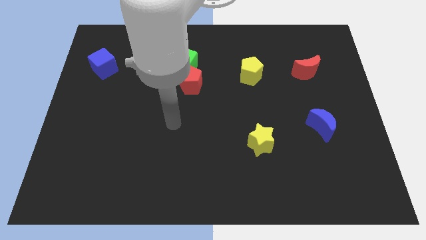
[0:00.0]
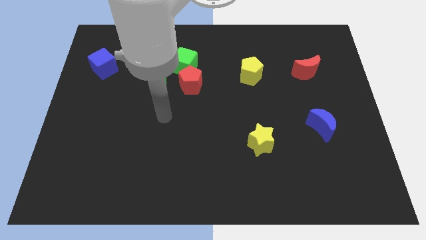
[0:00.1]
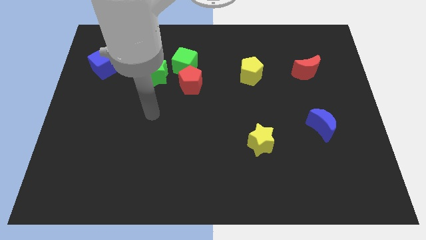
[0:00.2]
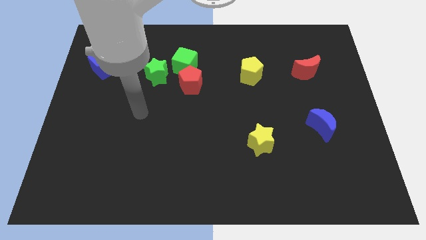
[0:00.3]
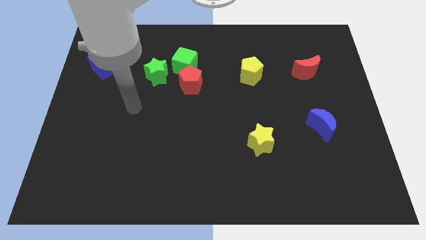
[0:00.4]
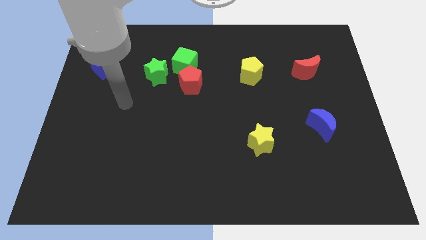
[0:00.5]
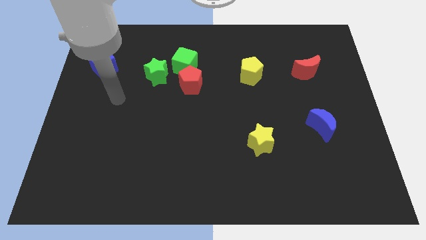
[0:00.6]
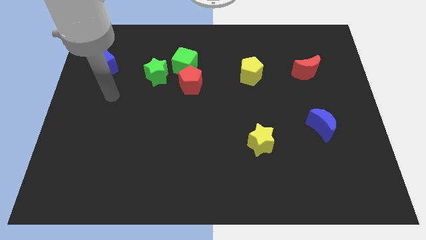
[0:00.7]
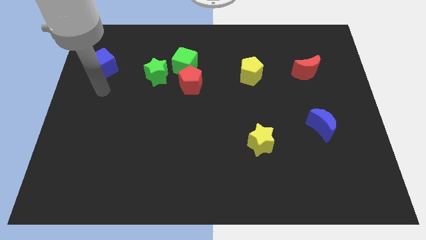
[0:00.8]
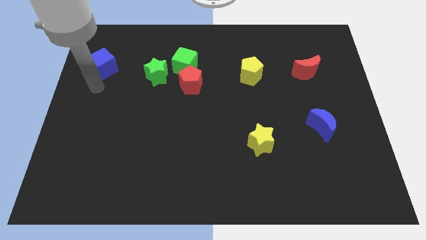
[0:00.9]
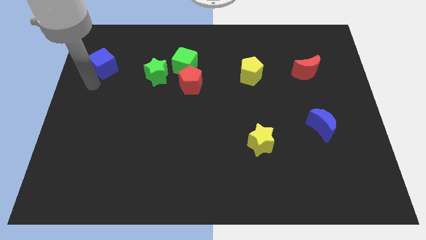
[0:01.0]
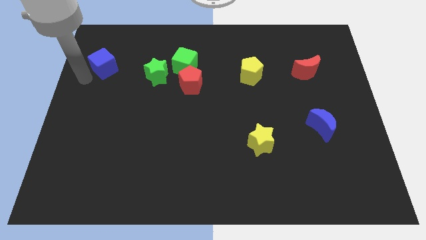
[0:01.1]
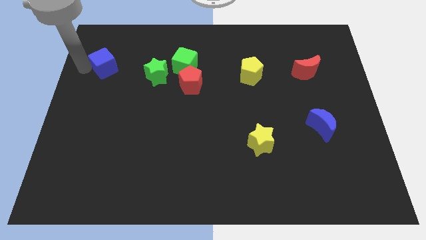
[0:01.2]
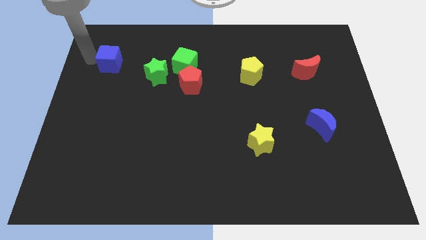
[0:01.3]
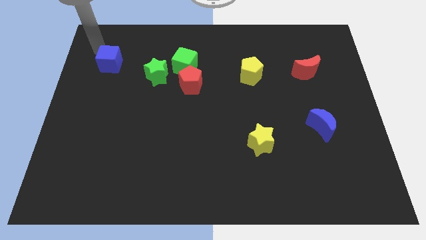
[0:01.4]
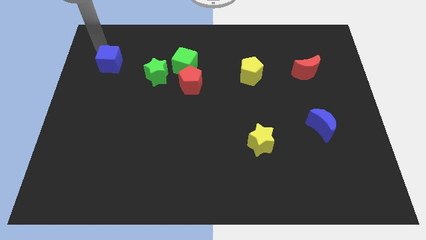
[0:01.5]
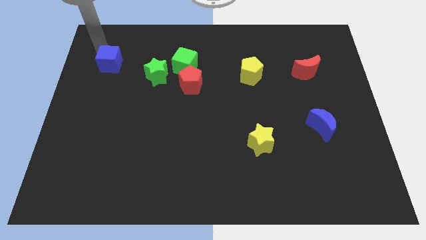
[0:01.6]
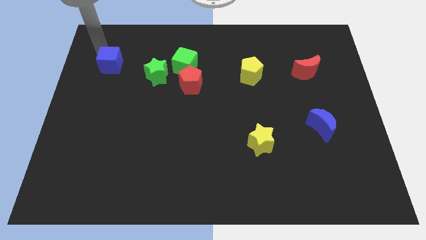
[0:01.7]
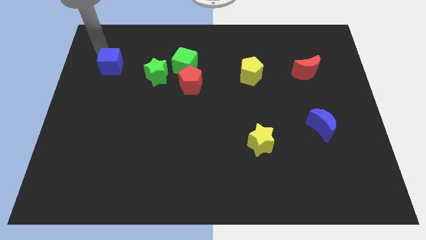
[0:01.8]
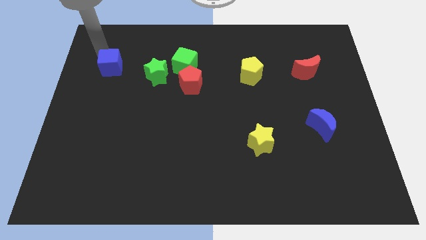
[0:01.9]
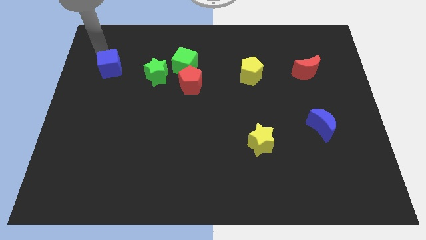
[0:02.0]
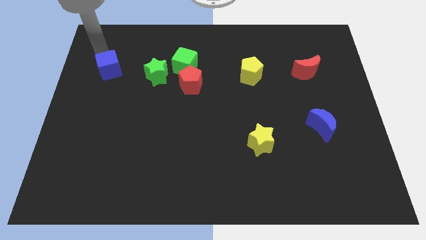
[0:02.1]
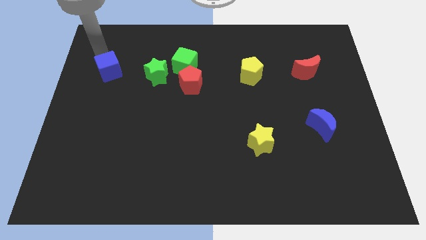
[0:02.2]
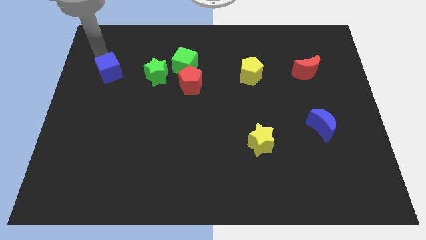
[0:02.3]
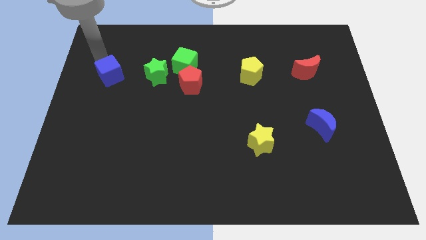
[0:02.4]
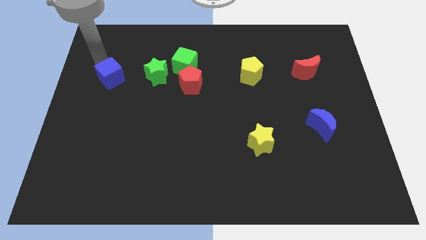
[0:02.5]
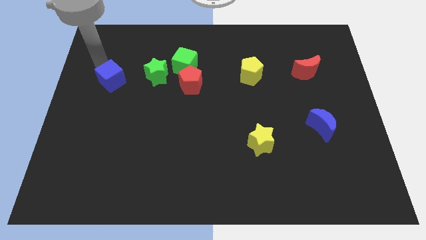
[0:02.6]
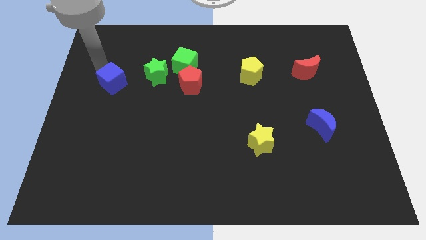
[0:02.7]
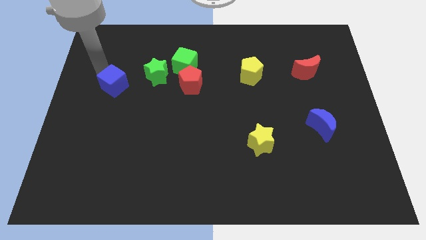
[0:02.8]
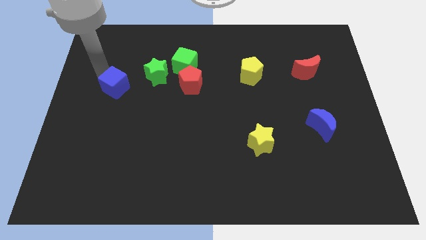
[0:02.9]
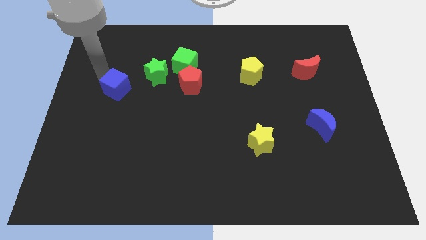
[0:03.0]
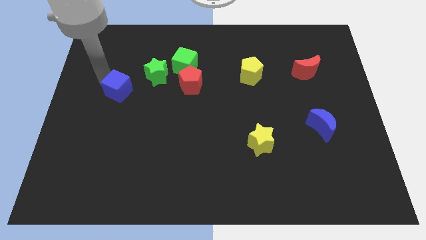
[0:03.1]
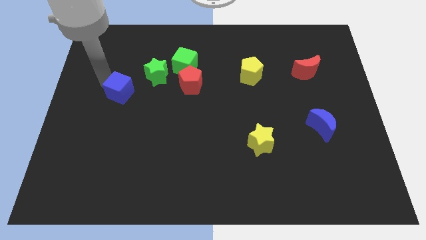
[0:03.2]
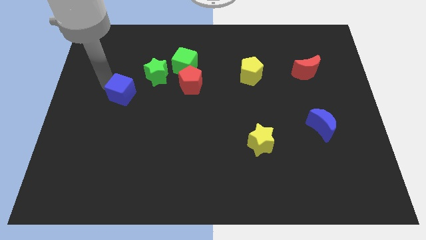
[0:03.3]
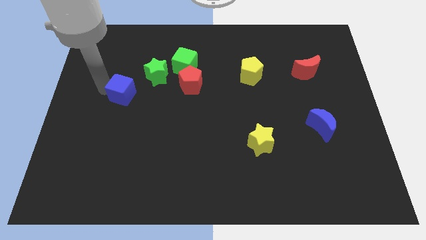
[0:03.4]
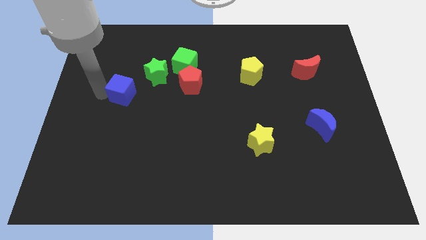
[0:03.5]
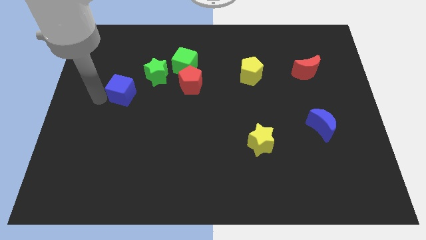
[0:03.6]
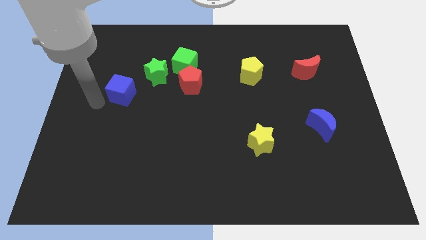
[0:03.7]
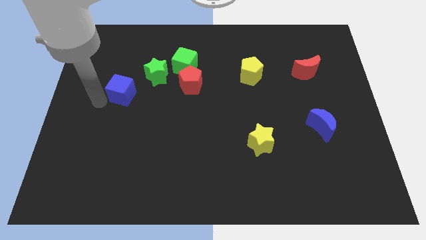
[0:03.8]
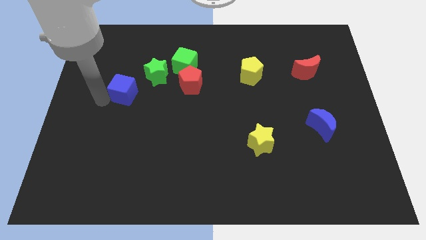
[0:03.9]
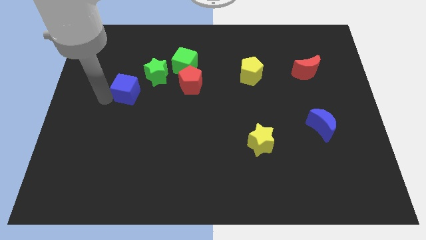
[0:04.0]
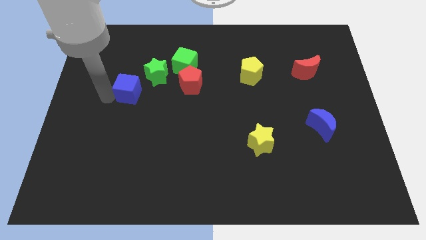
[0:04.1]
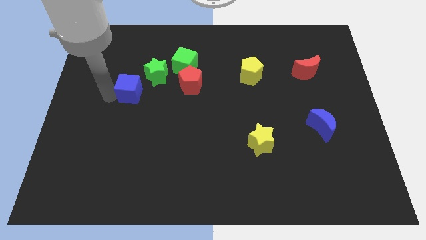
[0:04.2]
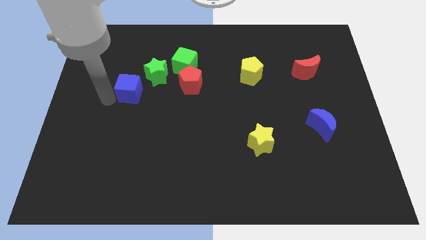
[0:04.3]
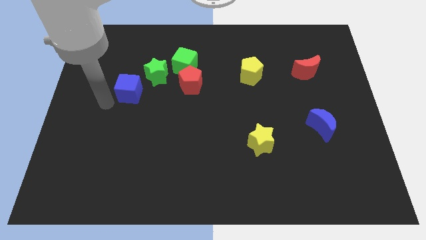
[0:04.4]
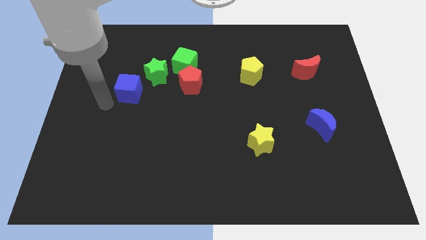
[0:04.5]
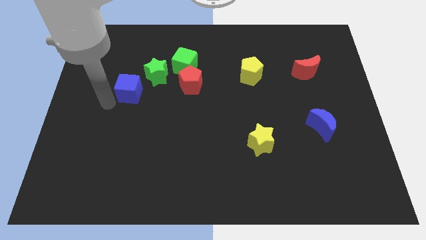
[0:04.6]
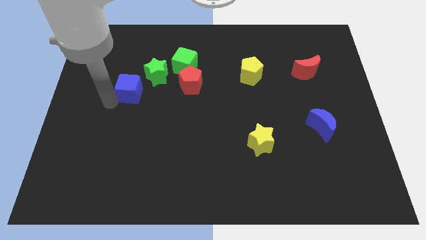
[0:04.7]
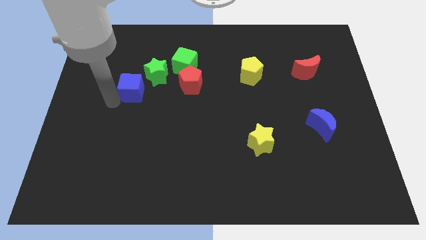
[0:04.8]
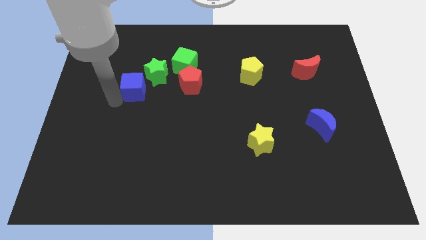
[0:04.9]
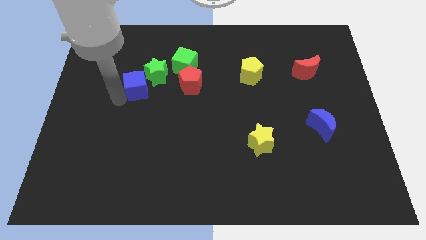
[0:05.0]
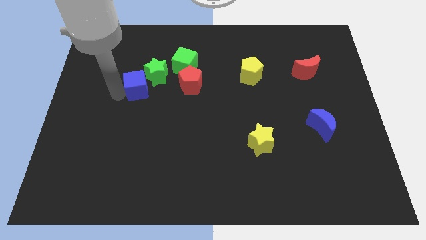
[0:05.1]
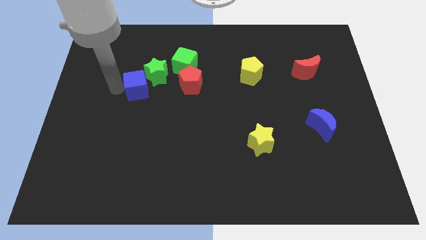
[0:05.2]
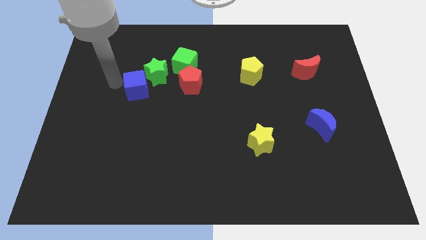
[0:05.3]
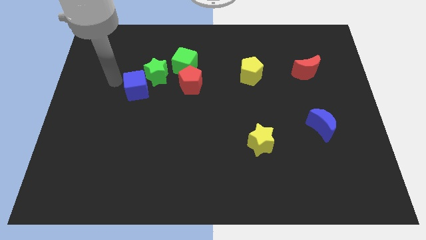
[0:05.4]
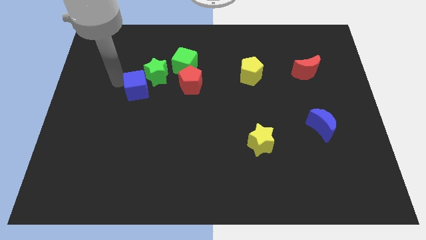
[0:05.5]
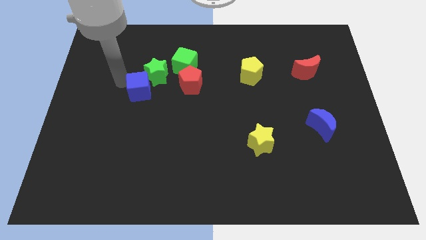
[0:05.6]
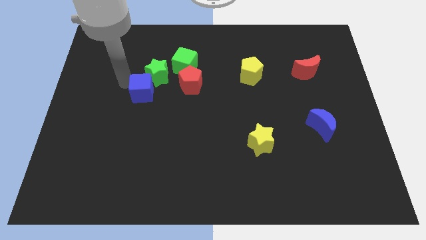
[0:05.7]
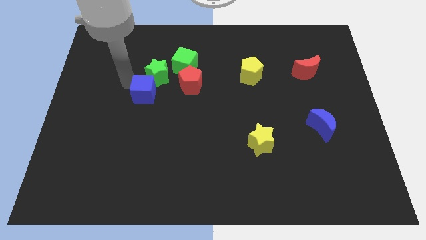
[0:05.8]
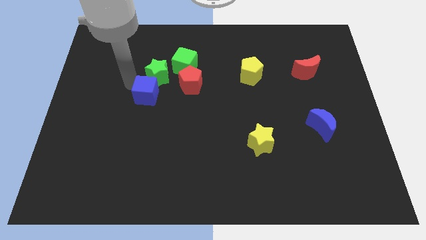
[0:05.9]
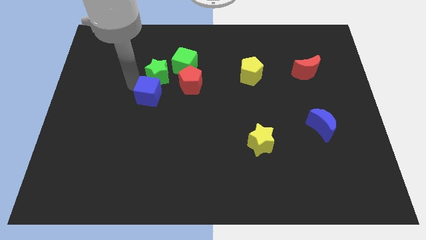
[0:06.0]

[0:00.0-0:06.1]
move the blue cube diagonally down and to the left of the red pentagon
